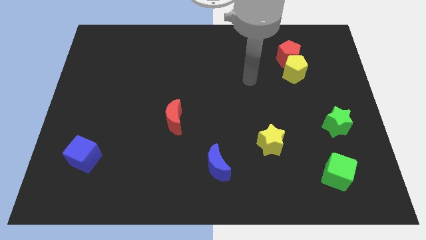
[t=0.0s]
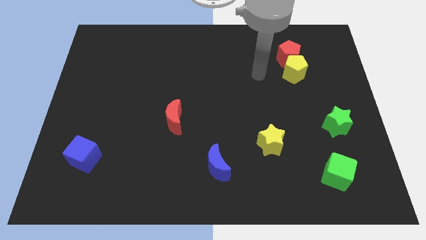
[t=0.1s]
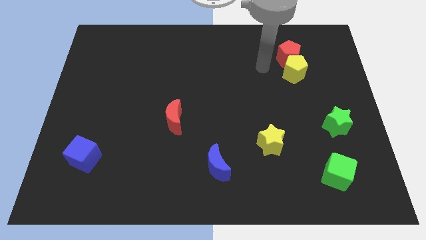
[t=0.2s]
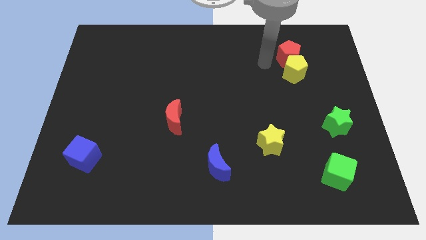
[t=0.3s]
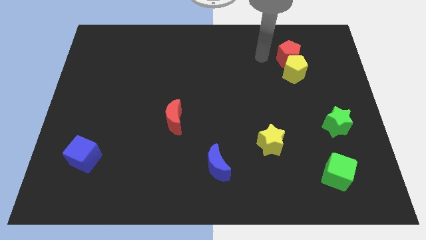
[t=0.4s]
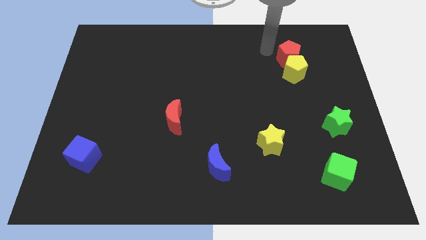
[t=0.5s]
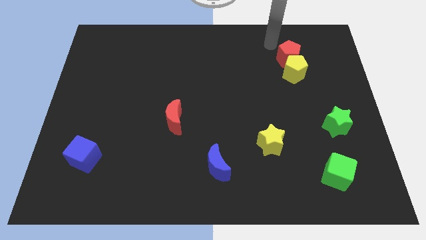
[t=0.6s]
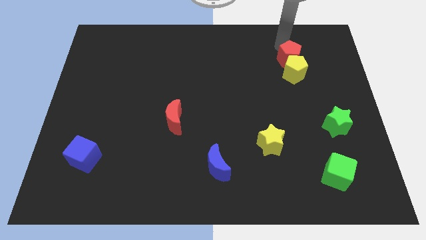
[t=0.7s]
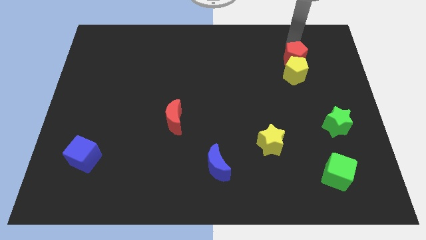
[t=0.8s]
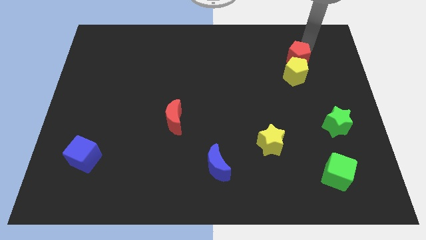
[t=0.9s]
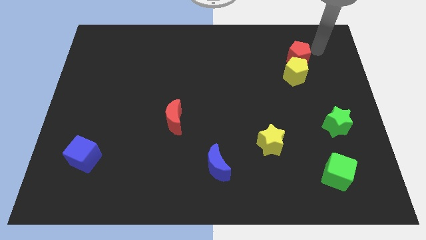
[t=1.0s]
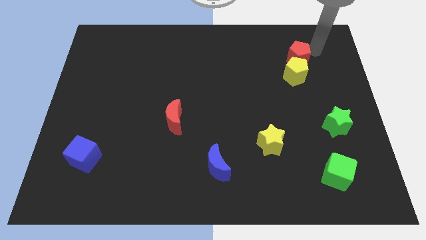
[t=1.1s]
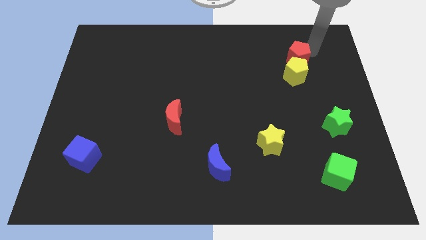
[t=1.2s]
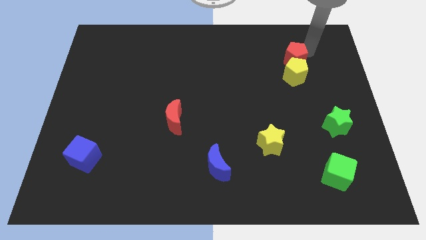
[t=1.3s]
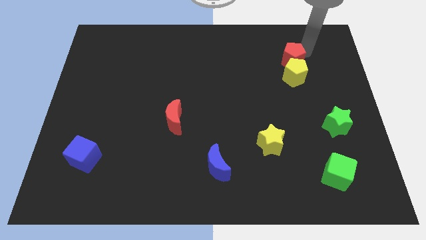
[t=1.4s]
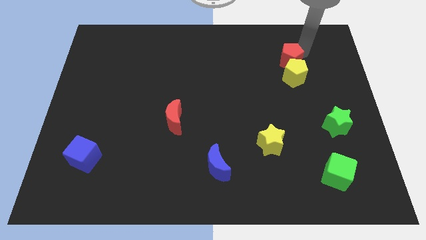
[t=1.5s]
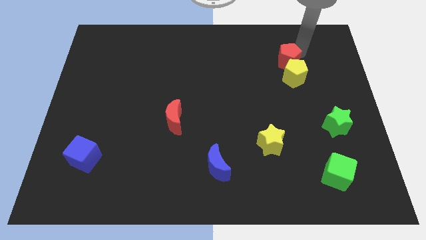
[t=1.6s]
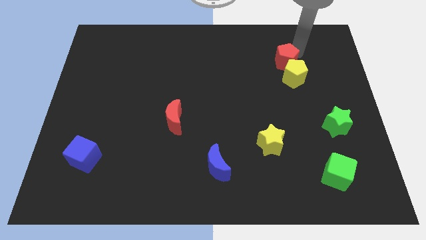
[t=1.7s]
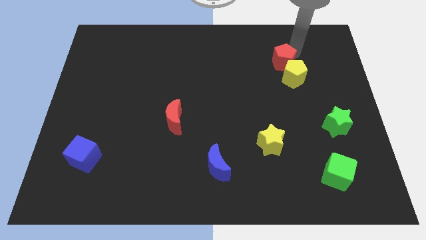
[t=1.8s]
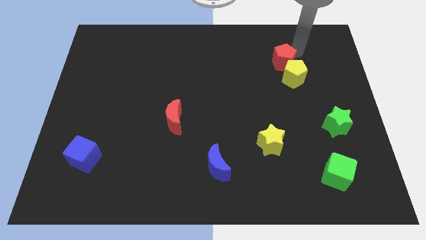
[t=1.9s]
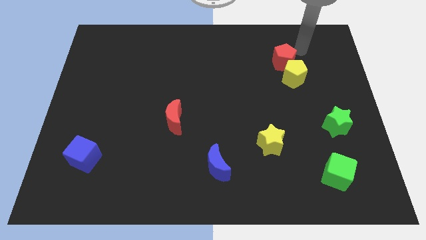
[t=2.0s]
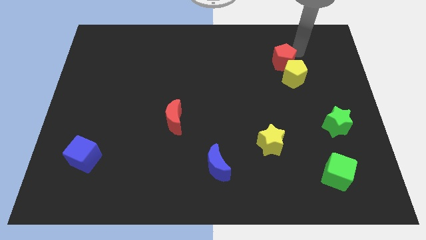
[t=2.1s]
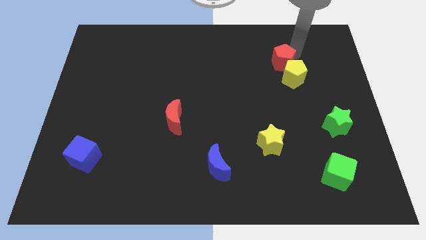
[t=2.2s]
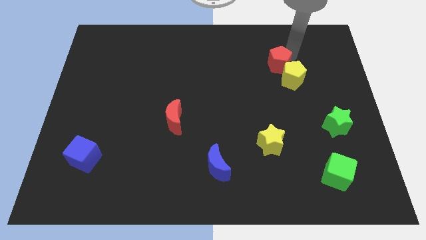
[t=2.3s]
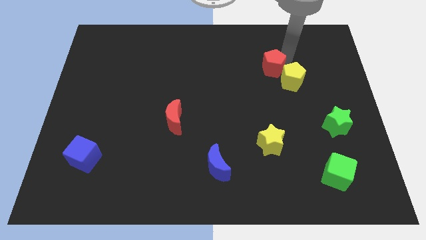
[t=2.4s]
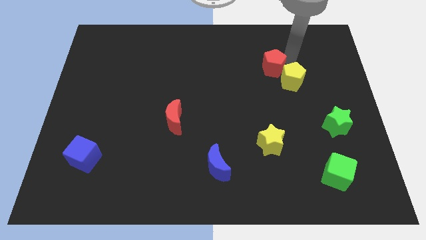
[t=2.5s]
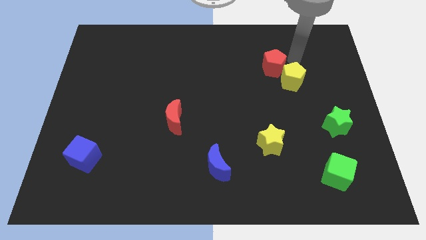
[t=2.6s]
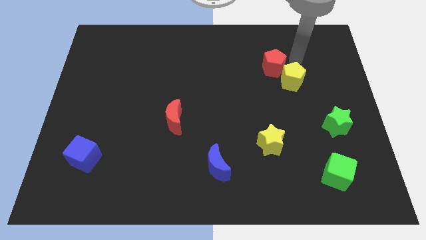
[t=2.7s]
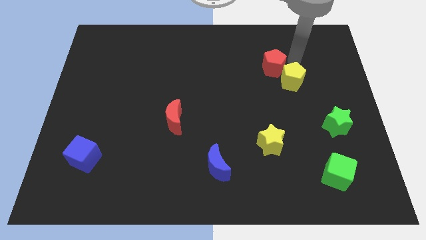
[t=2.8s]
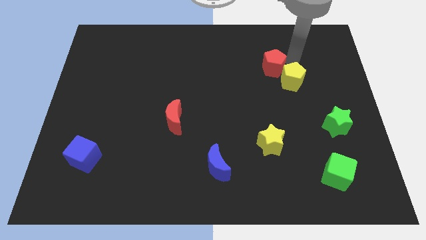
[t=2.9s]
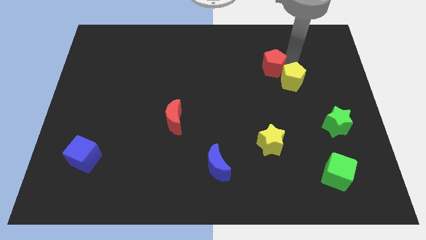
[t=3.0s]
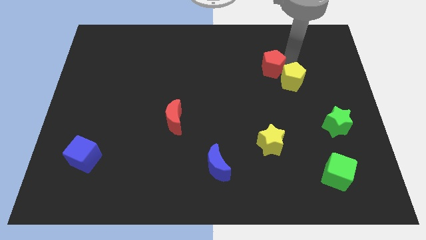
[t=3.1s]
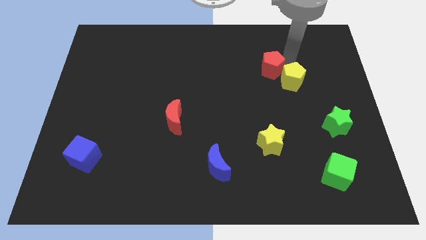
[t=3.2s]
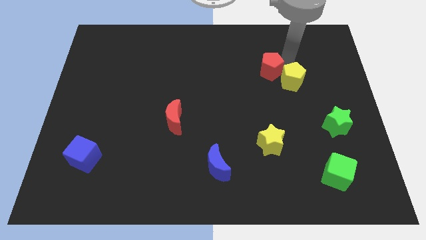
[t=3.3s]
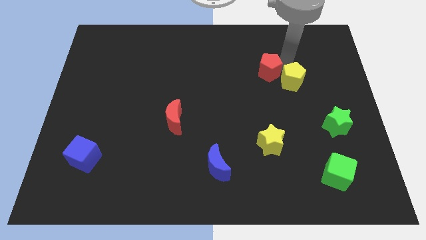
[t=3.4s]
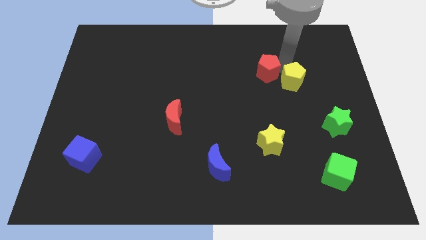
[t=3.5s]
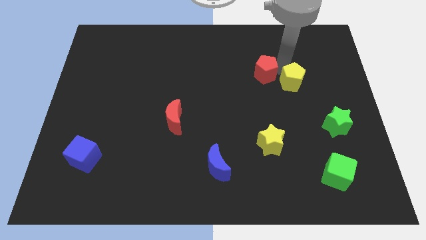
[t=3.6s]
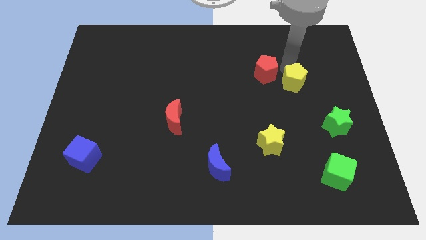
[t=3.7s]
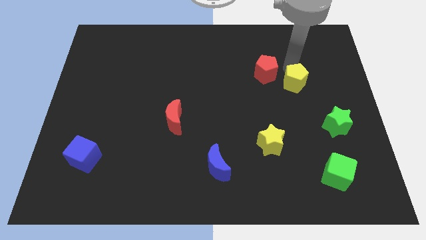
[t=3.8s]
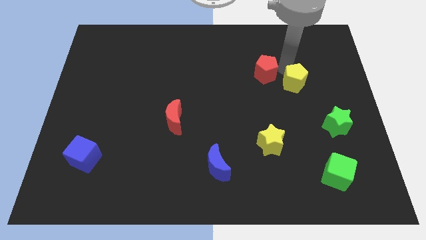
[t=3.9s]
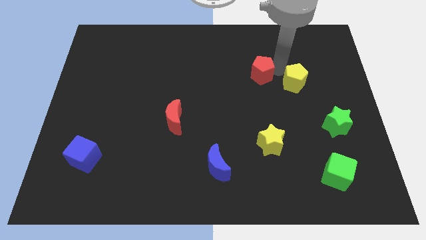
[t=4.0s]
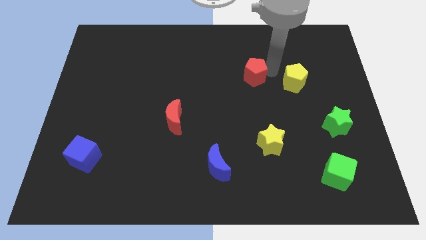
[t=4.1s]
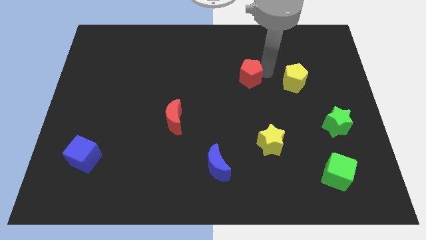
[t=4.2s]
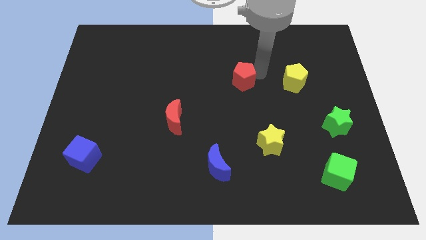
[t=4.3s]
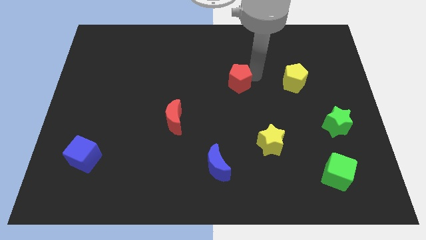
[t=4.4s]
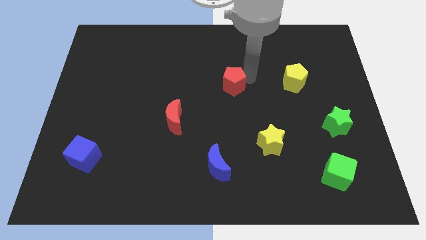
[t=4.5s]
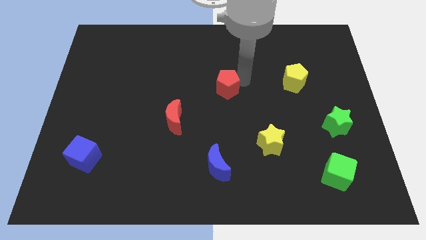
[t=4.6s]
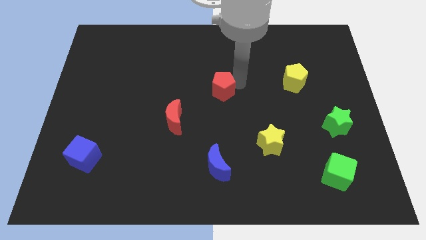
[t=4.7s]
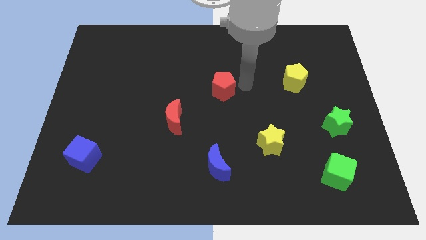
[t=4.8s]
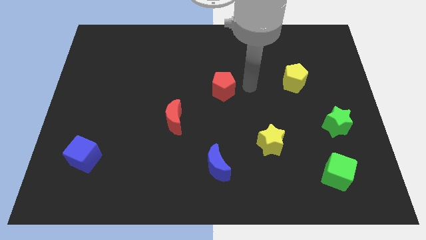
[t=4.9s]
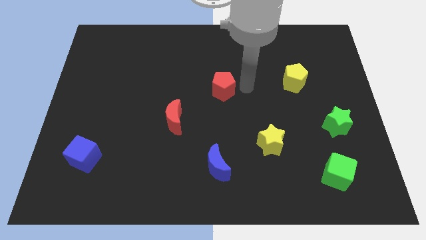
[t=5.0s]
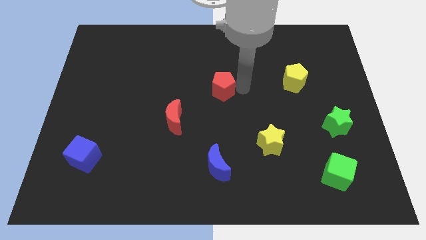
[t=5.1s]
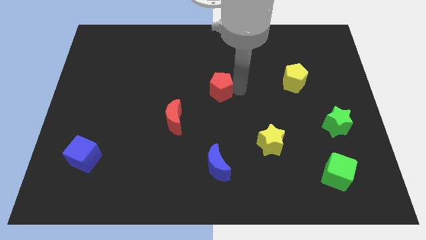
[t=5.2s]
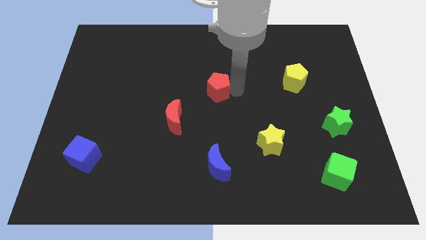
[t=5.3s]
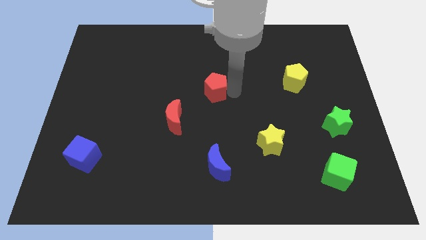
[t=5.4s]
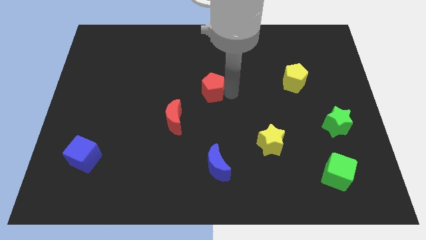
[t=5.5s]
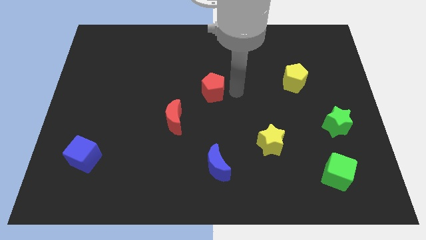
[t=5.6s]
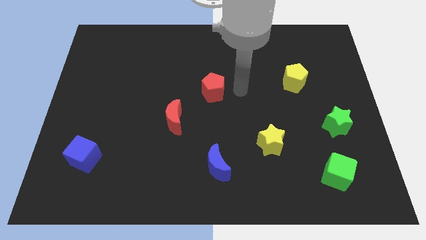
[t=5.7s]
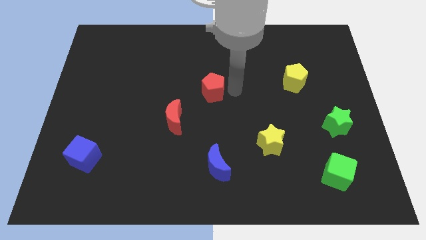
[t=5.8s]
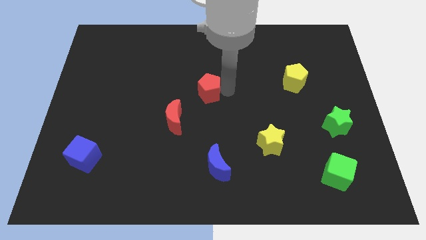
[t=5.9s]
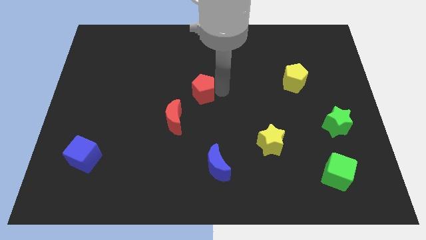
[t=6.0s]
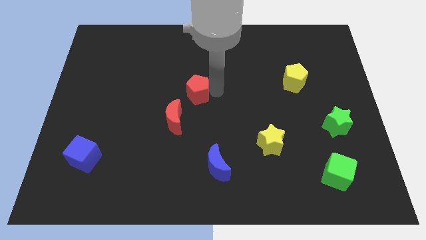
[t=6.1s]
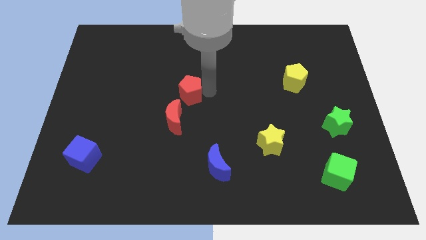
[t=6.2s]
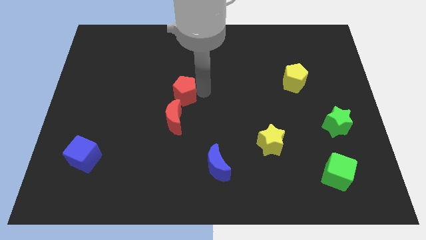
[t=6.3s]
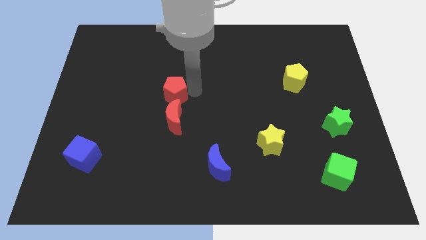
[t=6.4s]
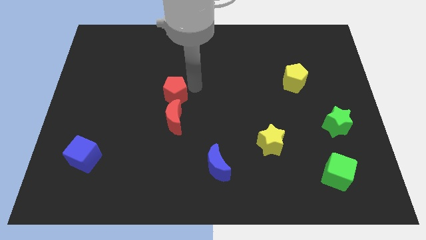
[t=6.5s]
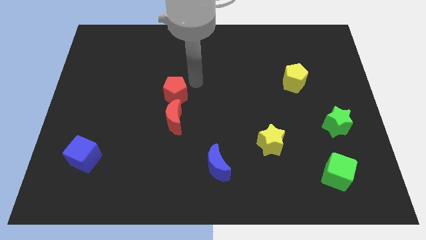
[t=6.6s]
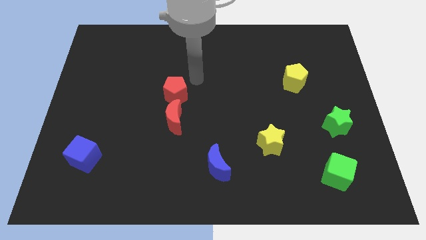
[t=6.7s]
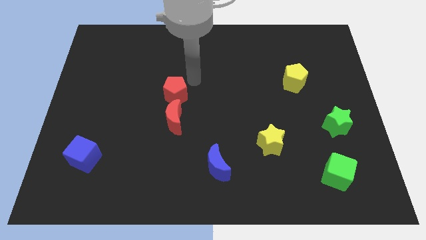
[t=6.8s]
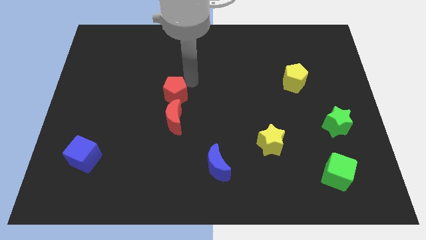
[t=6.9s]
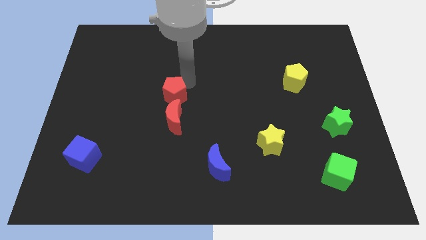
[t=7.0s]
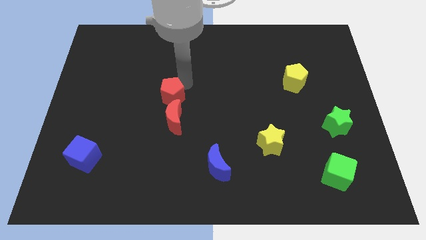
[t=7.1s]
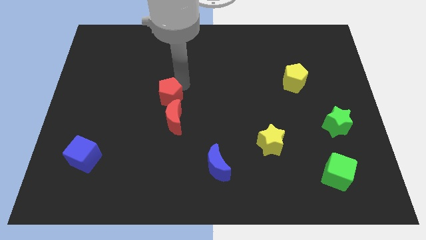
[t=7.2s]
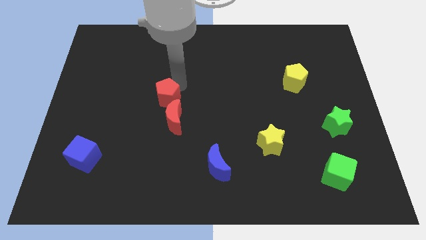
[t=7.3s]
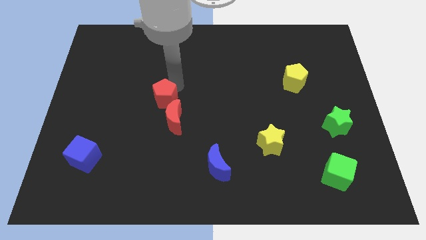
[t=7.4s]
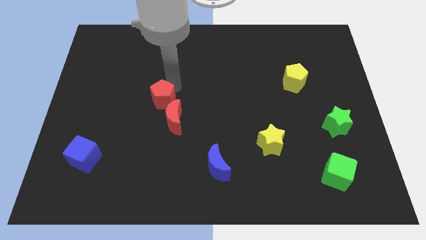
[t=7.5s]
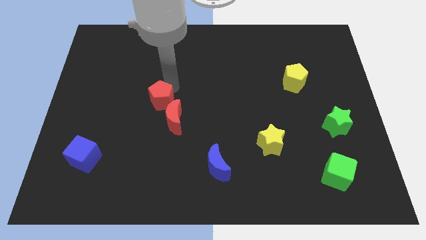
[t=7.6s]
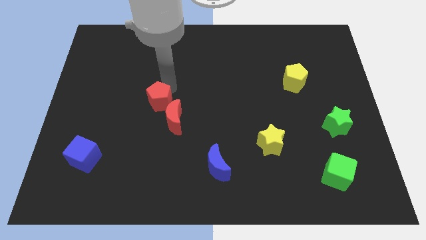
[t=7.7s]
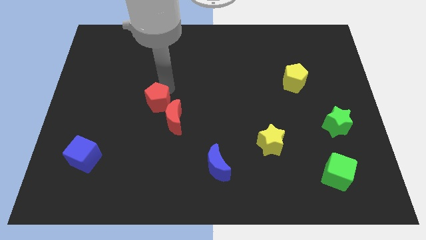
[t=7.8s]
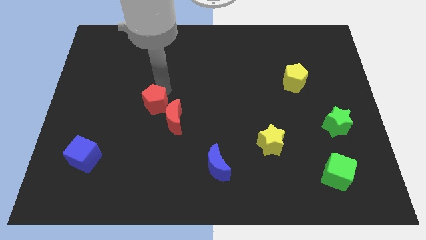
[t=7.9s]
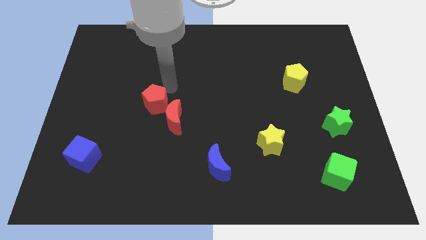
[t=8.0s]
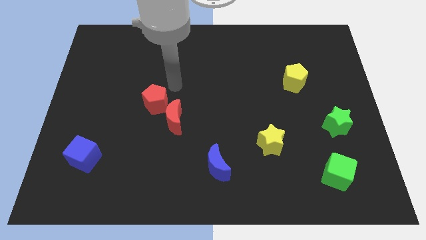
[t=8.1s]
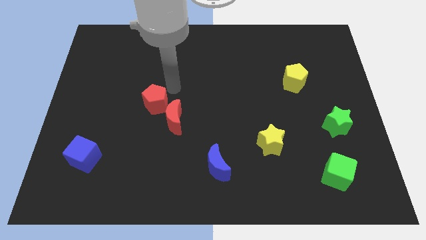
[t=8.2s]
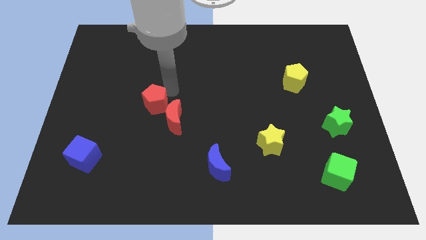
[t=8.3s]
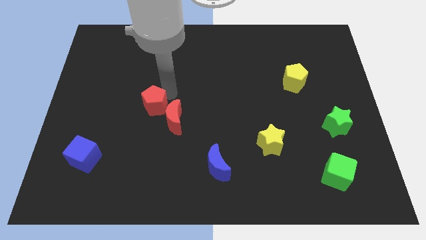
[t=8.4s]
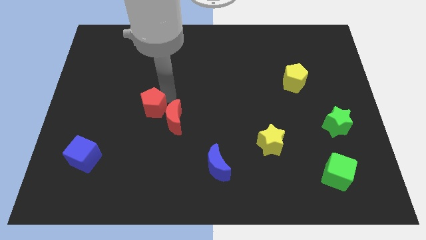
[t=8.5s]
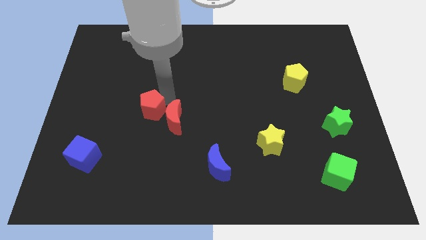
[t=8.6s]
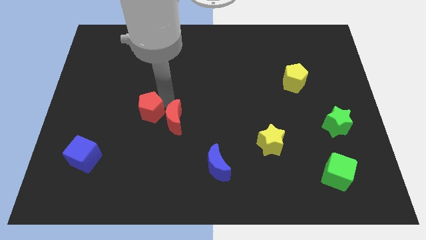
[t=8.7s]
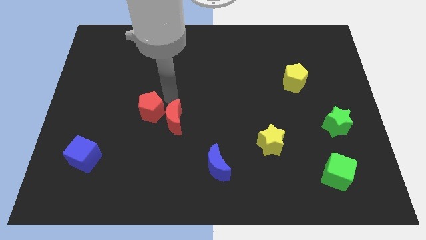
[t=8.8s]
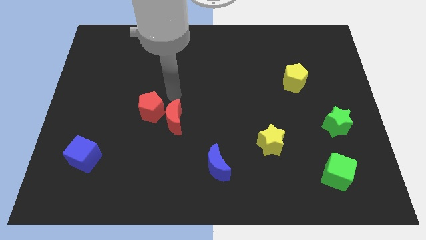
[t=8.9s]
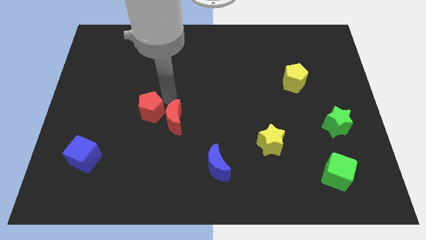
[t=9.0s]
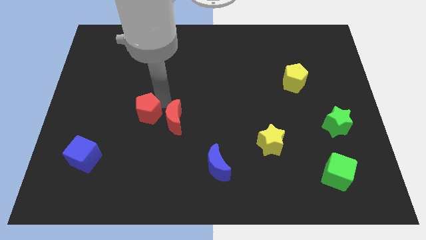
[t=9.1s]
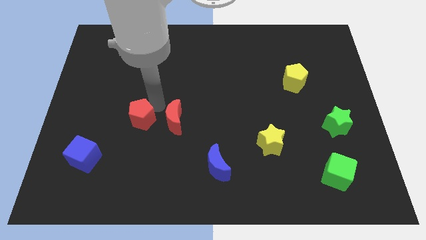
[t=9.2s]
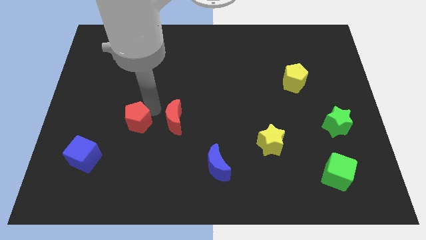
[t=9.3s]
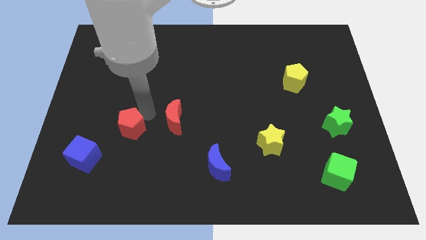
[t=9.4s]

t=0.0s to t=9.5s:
move the red pentagon diagonally up and to the right of the blue cube
